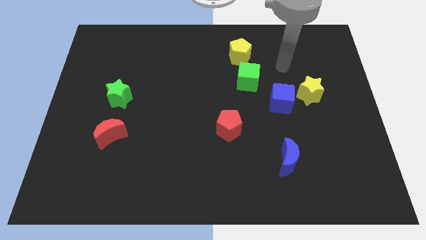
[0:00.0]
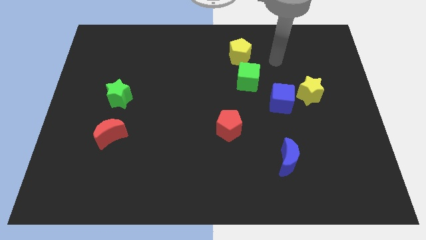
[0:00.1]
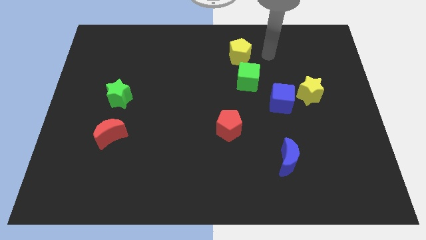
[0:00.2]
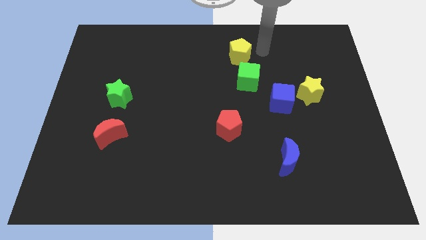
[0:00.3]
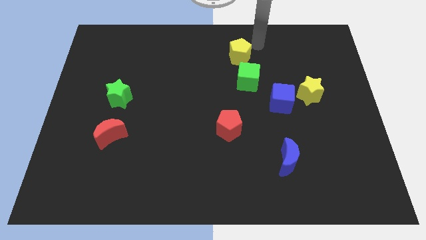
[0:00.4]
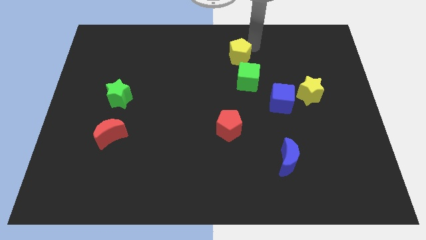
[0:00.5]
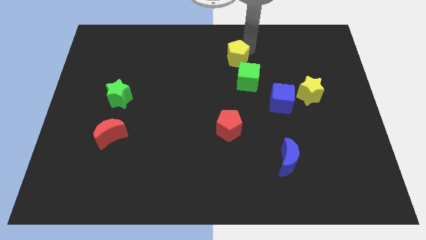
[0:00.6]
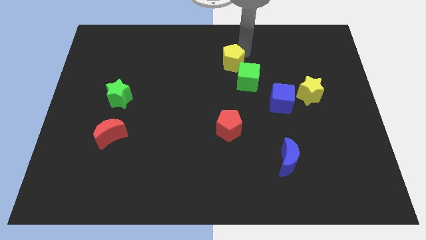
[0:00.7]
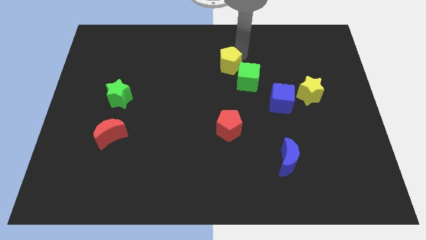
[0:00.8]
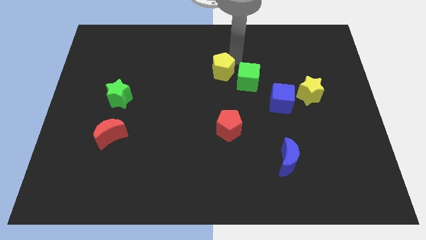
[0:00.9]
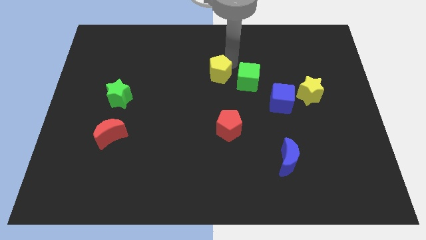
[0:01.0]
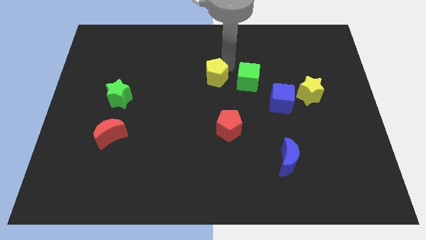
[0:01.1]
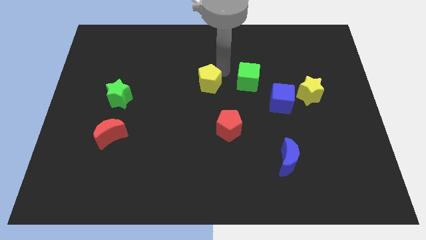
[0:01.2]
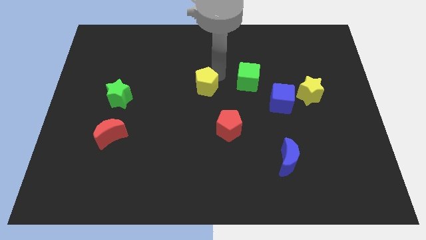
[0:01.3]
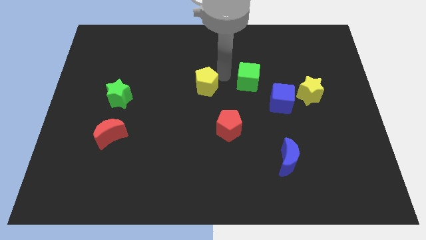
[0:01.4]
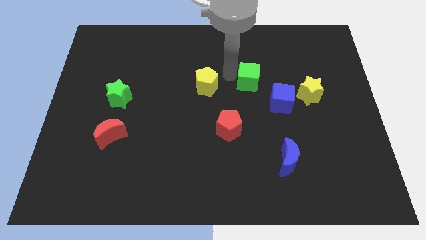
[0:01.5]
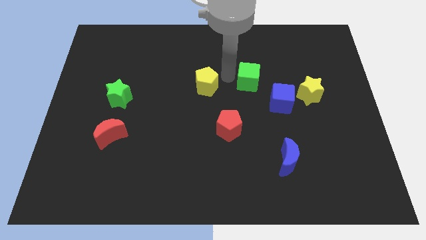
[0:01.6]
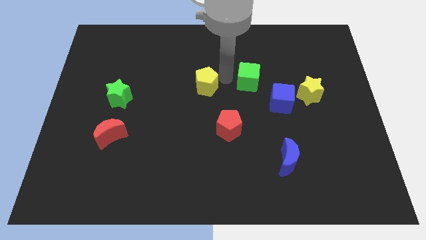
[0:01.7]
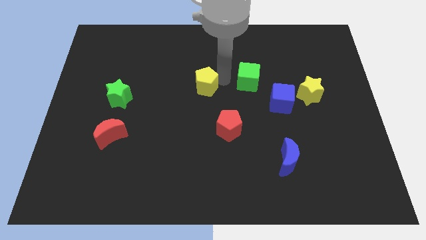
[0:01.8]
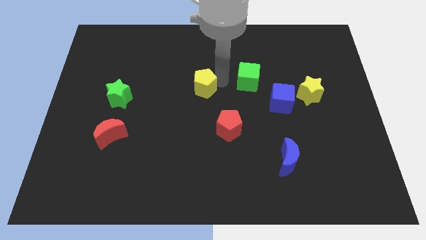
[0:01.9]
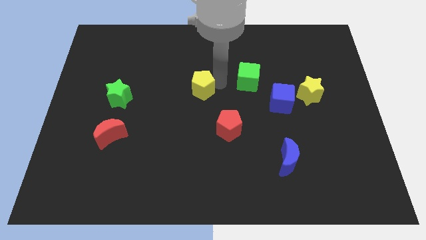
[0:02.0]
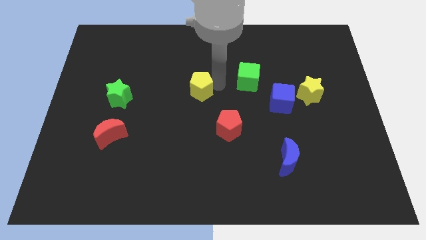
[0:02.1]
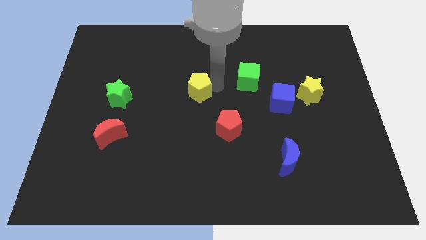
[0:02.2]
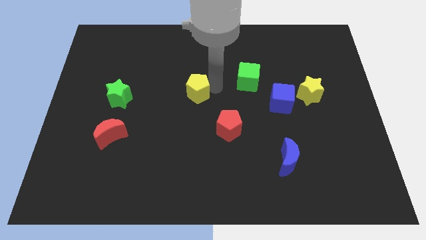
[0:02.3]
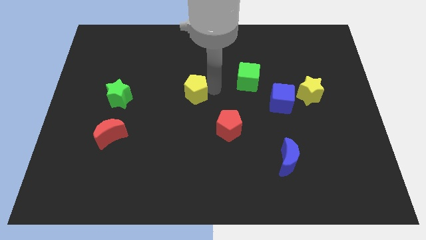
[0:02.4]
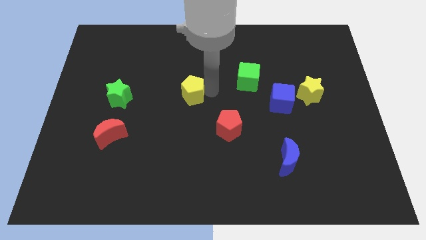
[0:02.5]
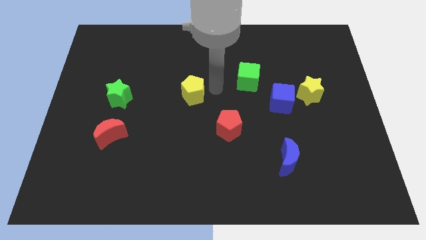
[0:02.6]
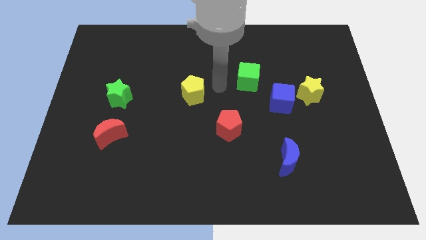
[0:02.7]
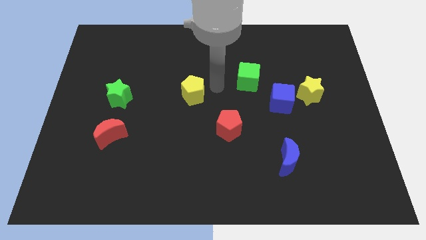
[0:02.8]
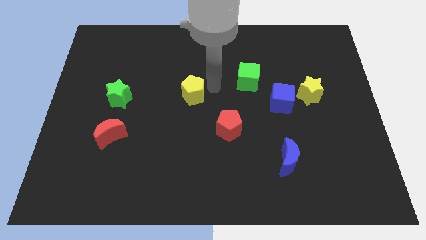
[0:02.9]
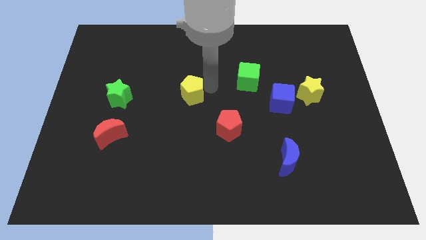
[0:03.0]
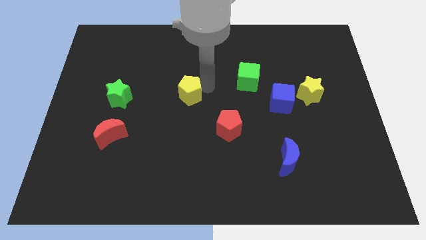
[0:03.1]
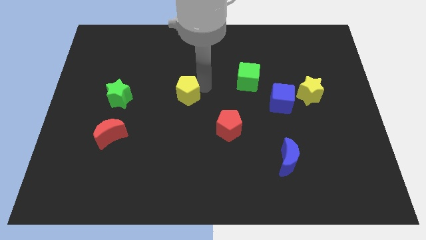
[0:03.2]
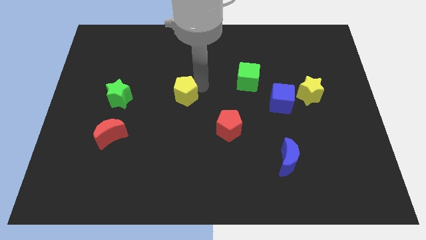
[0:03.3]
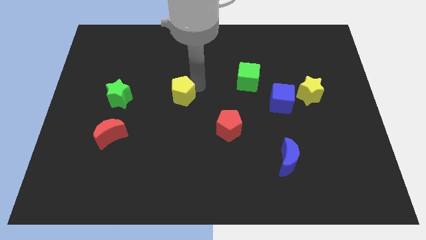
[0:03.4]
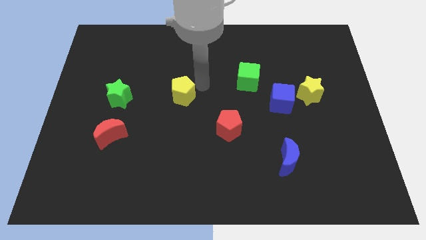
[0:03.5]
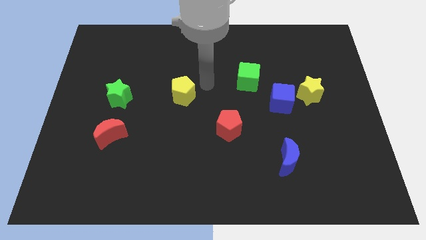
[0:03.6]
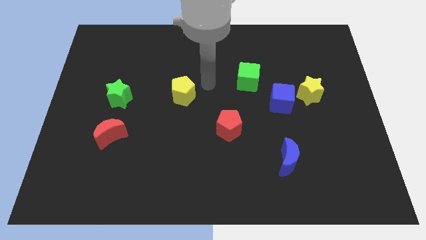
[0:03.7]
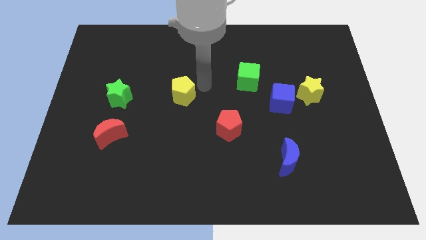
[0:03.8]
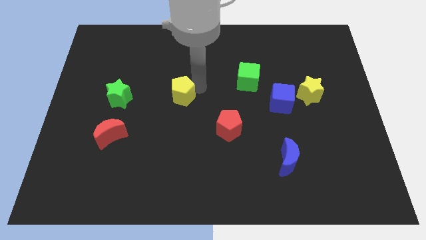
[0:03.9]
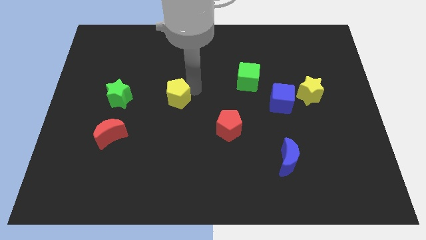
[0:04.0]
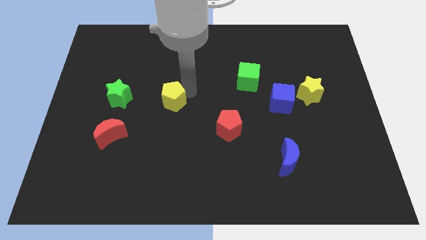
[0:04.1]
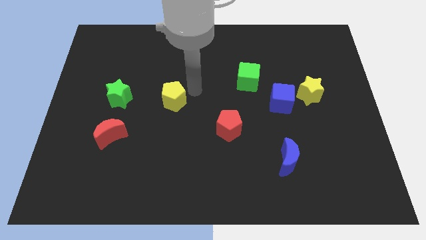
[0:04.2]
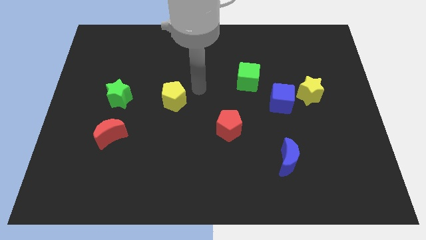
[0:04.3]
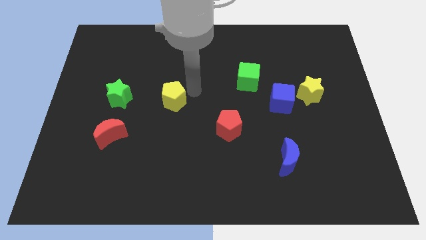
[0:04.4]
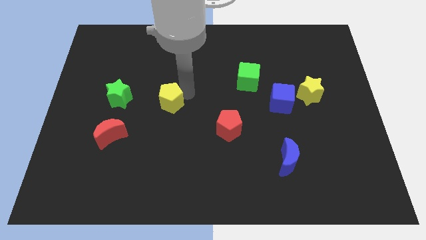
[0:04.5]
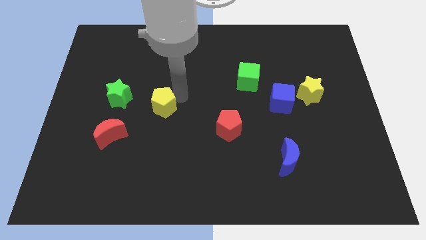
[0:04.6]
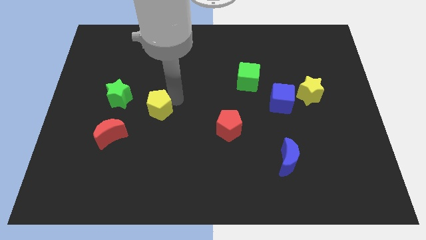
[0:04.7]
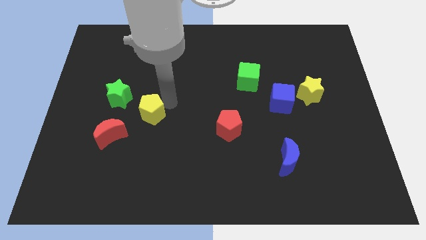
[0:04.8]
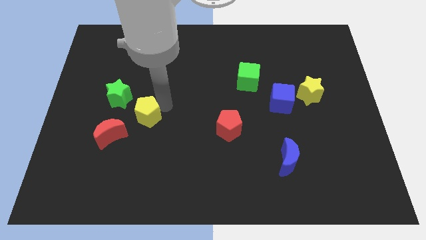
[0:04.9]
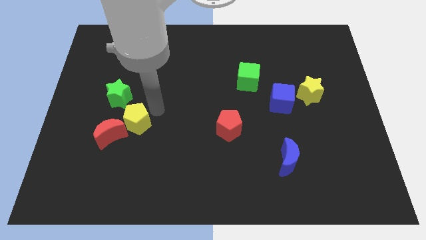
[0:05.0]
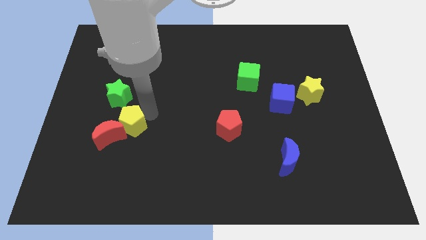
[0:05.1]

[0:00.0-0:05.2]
move the yellow pentagon to the red moon

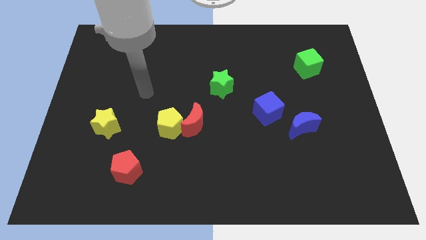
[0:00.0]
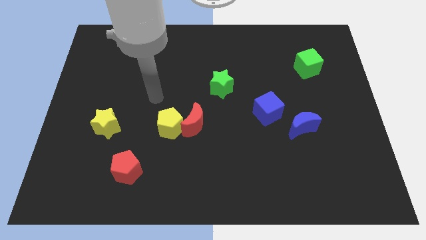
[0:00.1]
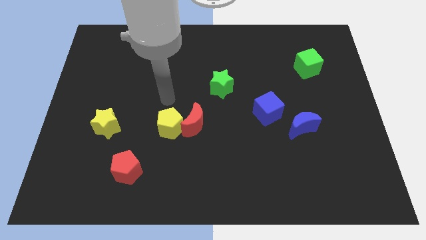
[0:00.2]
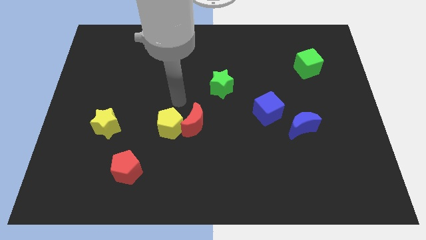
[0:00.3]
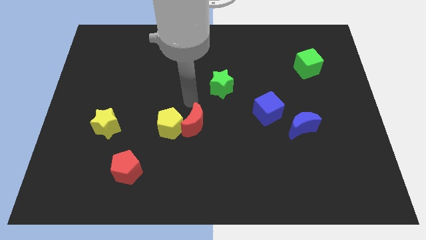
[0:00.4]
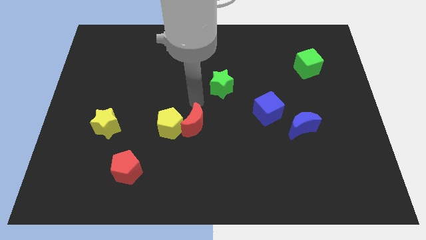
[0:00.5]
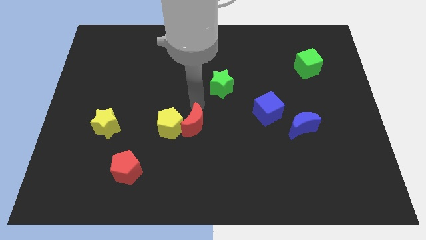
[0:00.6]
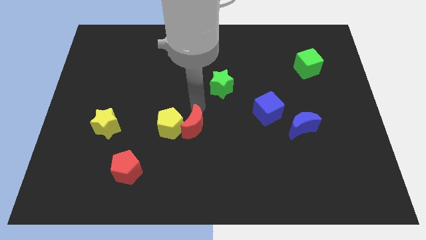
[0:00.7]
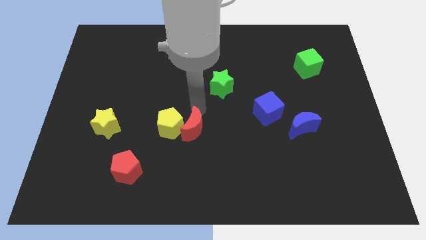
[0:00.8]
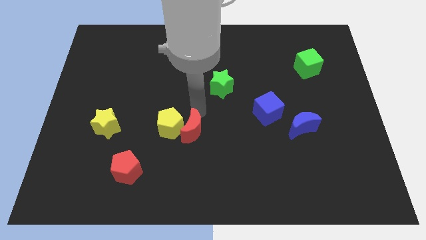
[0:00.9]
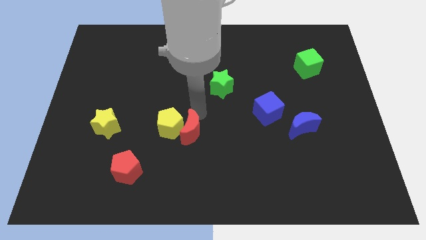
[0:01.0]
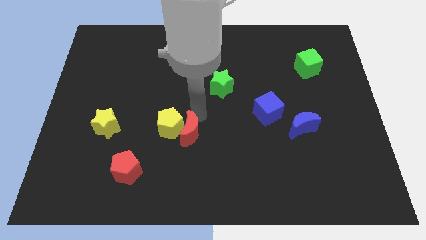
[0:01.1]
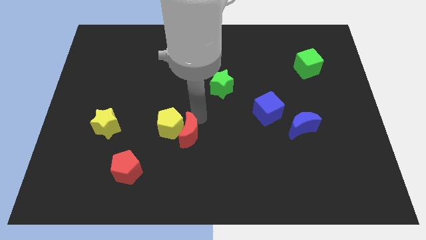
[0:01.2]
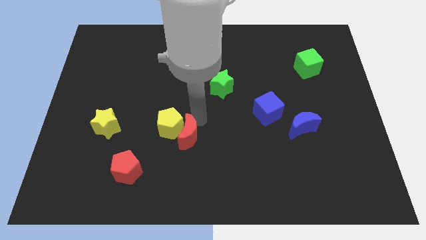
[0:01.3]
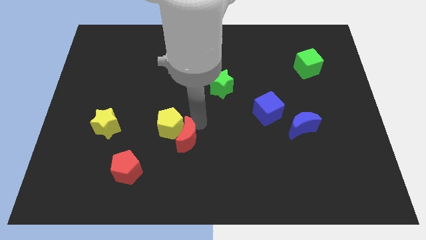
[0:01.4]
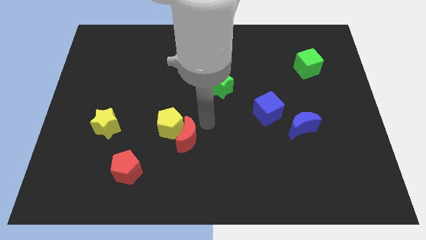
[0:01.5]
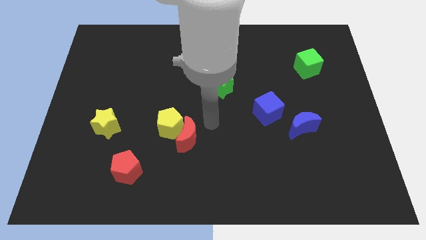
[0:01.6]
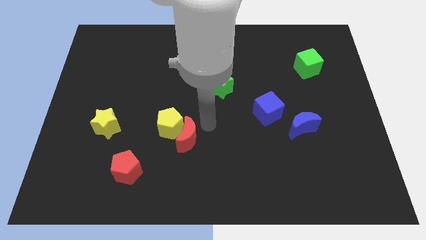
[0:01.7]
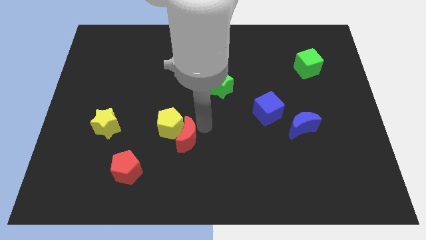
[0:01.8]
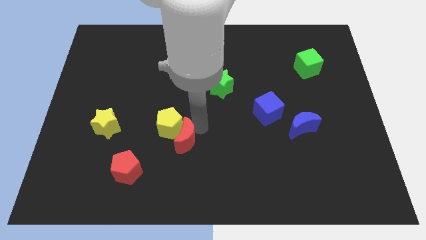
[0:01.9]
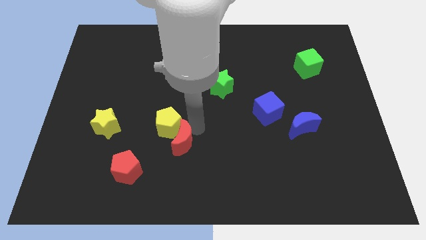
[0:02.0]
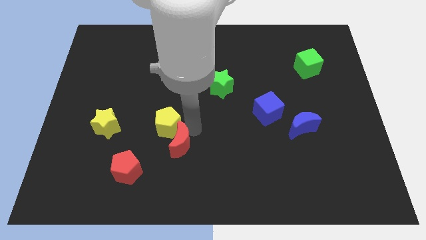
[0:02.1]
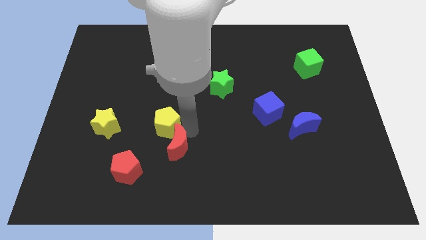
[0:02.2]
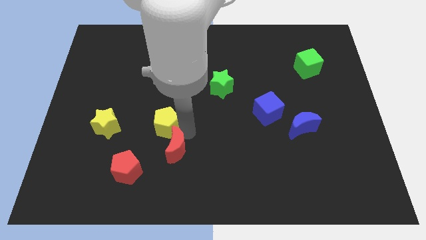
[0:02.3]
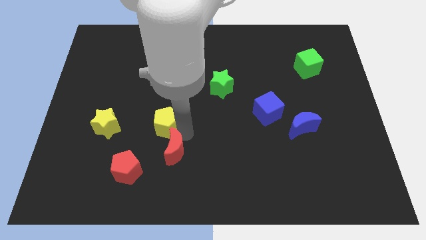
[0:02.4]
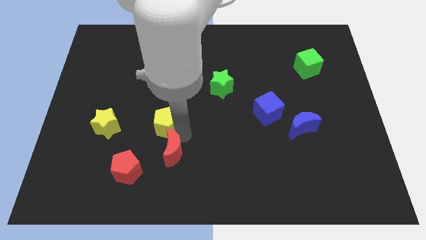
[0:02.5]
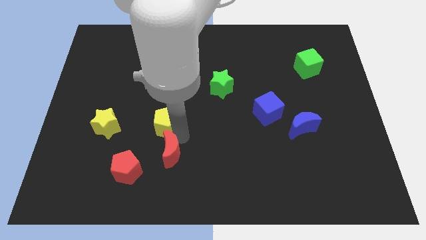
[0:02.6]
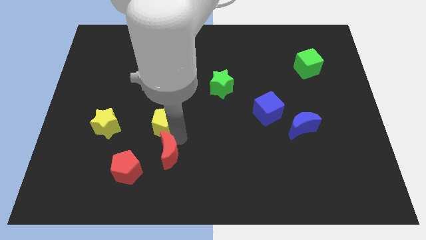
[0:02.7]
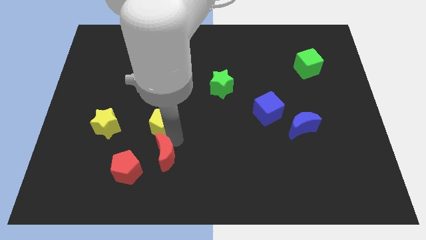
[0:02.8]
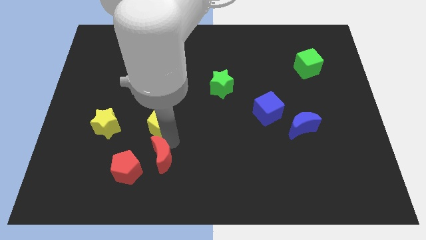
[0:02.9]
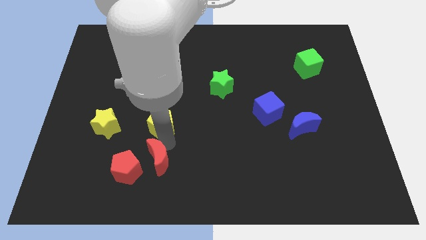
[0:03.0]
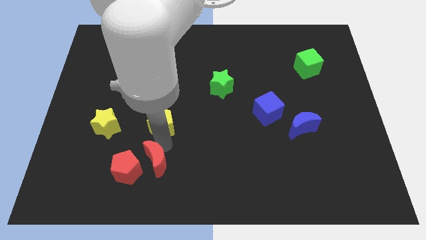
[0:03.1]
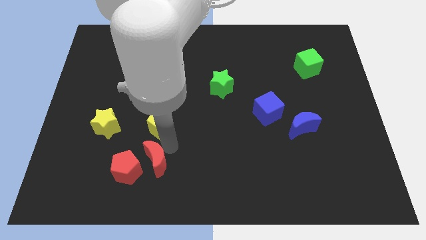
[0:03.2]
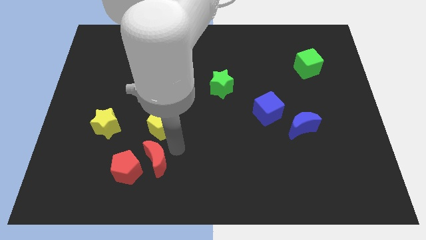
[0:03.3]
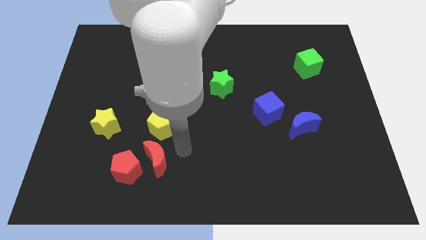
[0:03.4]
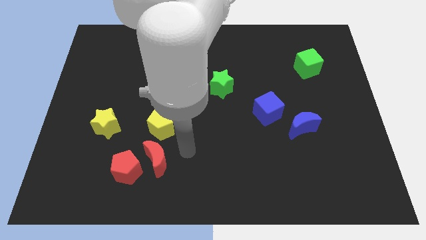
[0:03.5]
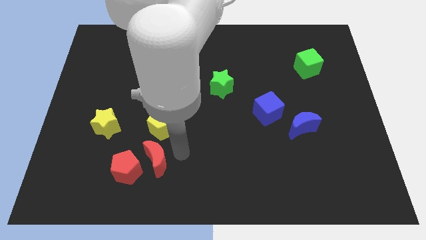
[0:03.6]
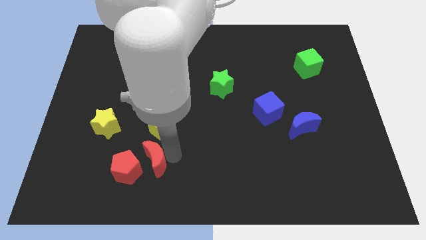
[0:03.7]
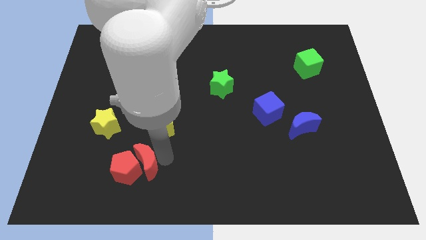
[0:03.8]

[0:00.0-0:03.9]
slide the red moon close to the red pentagon
